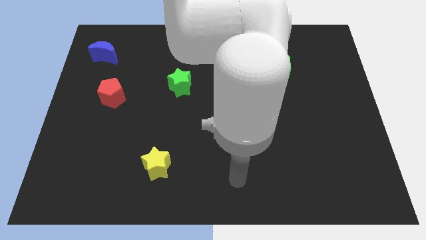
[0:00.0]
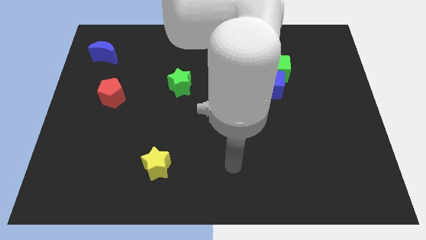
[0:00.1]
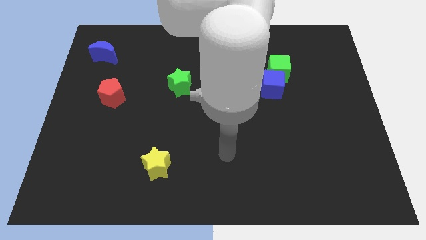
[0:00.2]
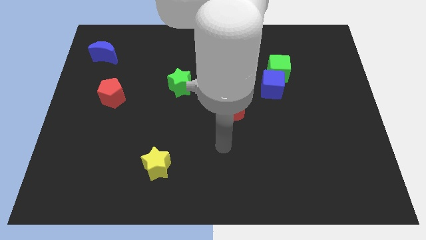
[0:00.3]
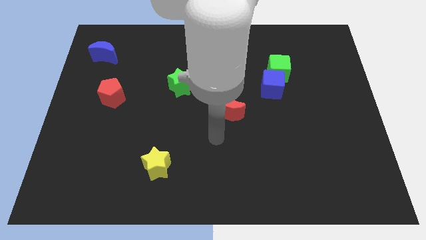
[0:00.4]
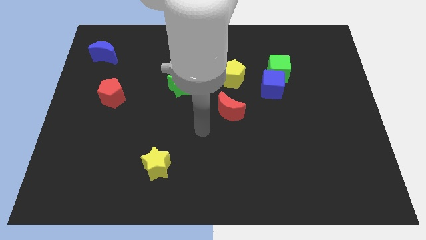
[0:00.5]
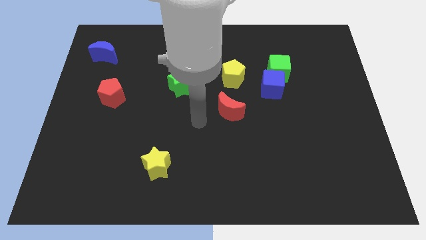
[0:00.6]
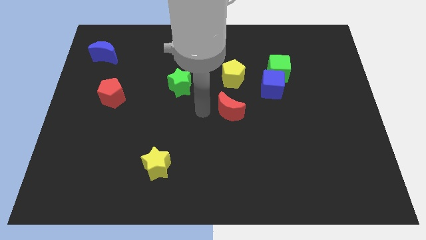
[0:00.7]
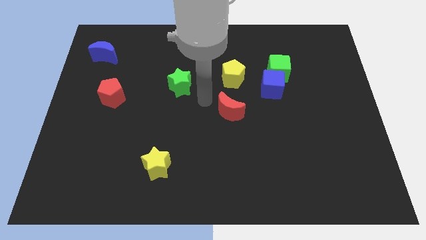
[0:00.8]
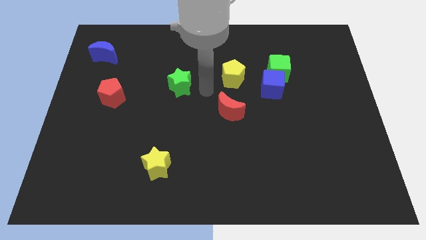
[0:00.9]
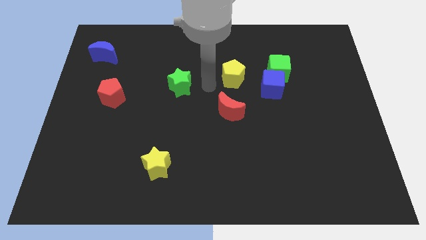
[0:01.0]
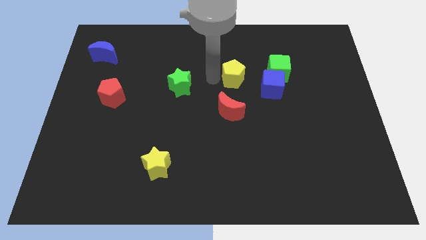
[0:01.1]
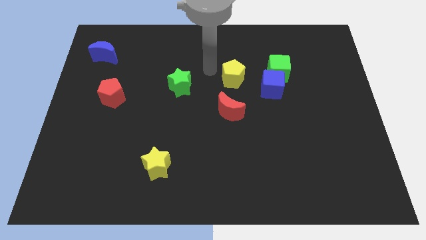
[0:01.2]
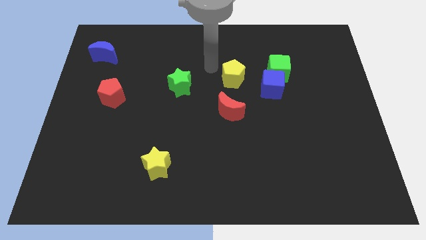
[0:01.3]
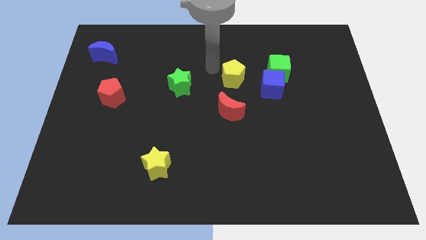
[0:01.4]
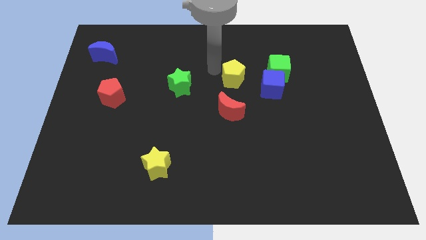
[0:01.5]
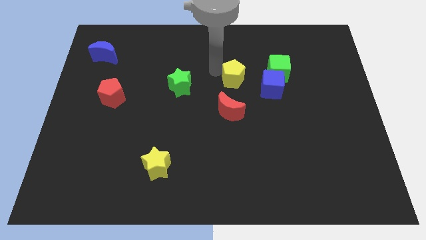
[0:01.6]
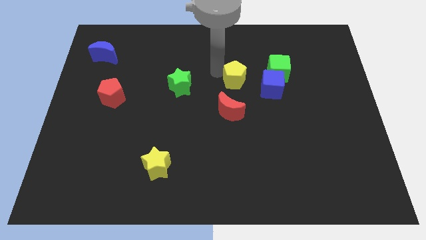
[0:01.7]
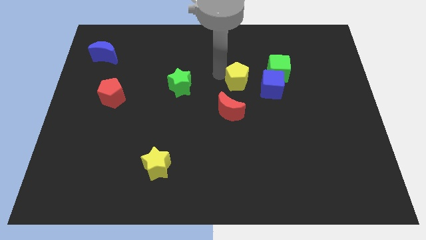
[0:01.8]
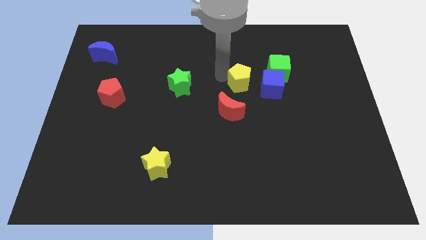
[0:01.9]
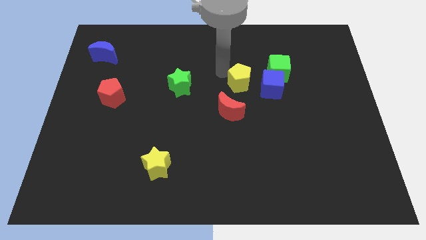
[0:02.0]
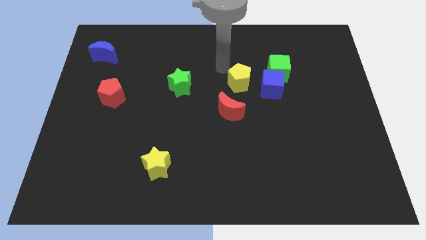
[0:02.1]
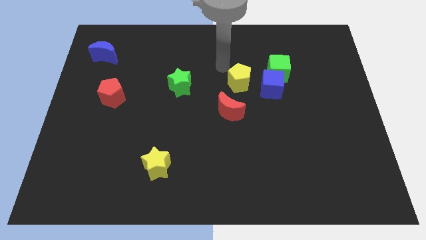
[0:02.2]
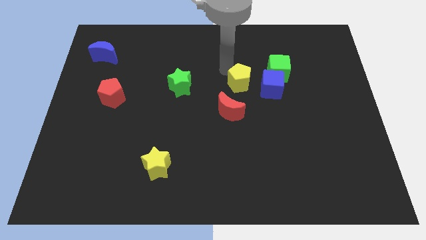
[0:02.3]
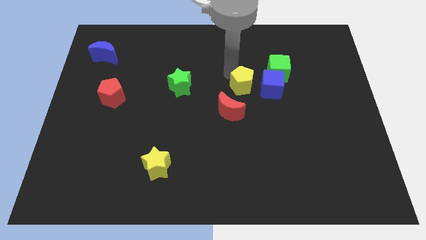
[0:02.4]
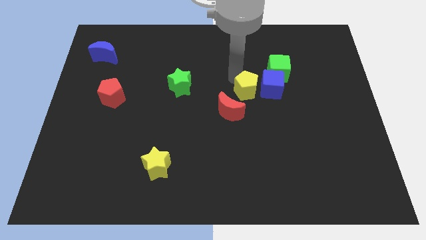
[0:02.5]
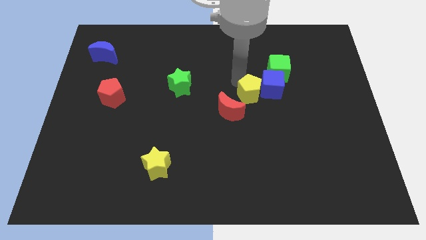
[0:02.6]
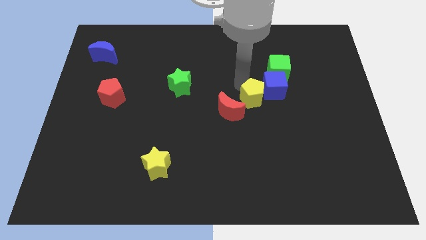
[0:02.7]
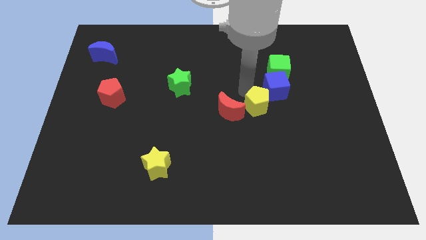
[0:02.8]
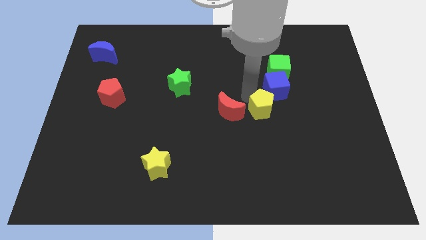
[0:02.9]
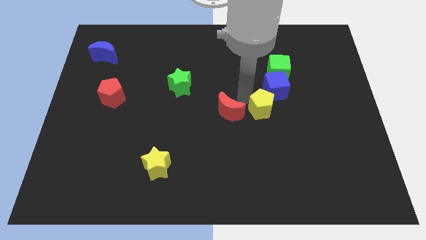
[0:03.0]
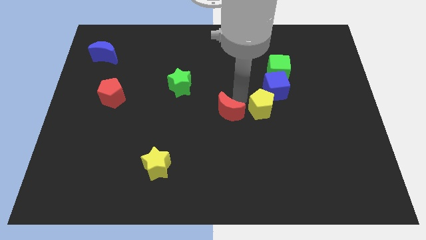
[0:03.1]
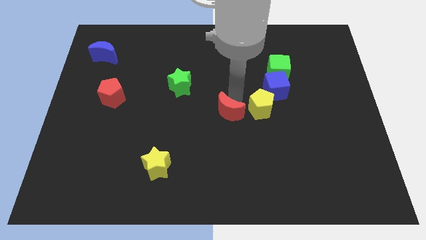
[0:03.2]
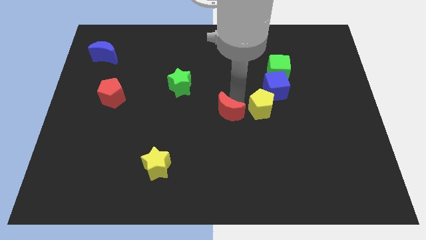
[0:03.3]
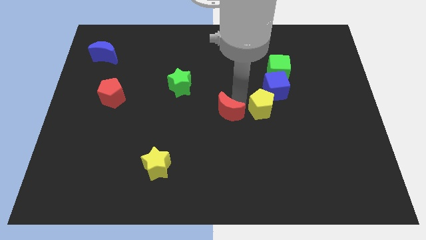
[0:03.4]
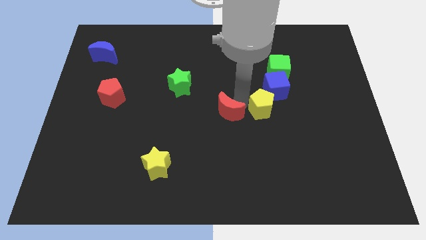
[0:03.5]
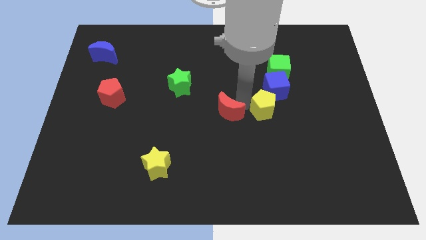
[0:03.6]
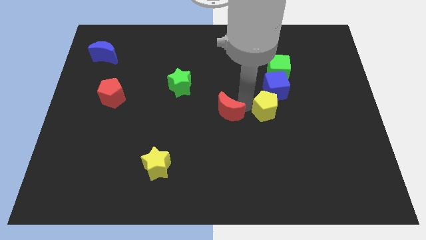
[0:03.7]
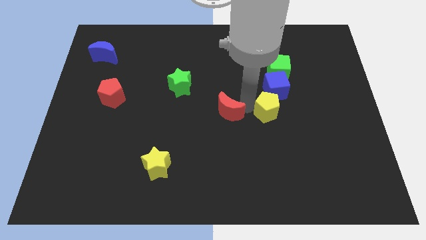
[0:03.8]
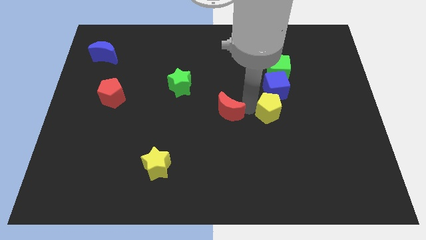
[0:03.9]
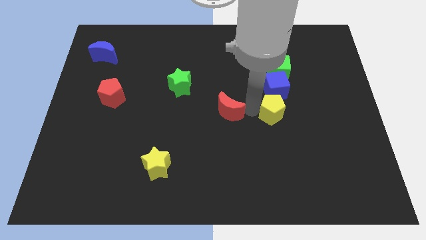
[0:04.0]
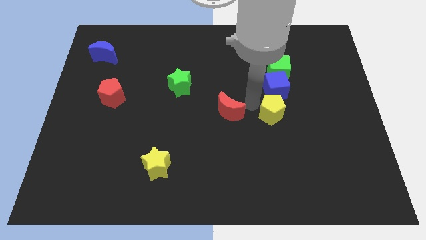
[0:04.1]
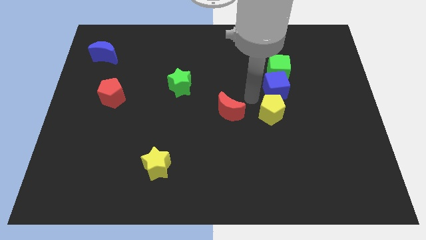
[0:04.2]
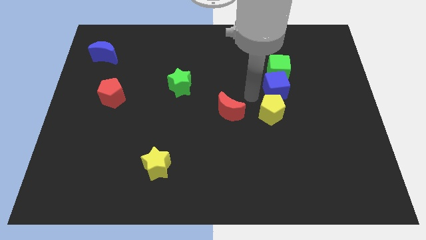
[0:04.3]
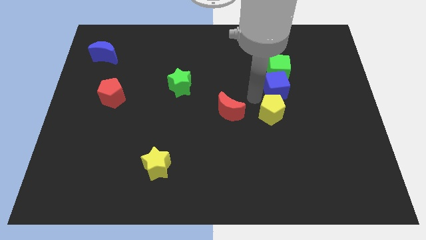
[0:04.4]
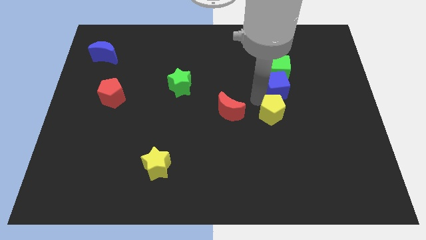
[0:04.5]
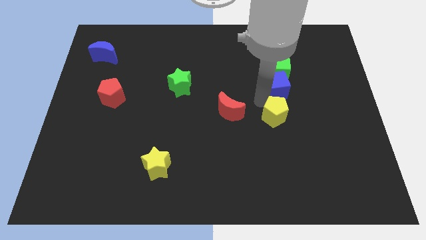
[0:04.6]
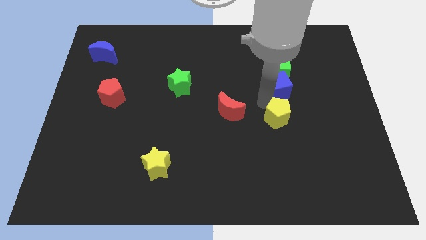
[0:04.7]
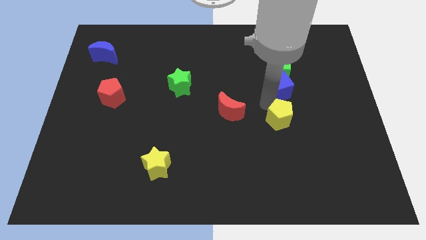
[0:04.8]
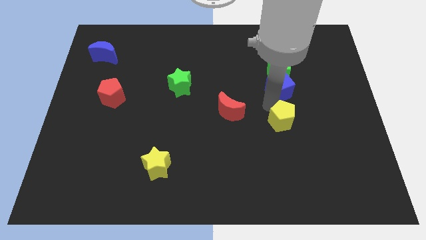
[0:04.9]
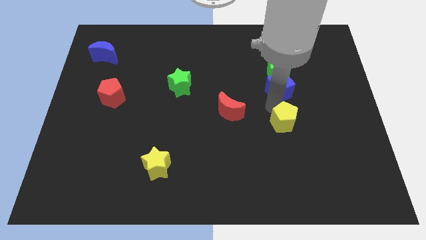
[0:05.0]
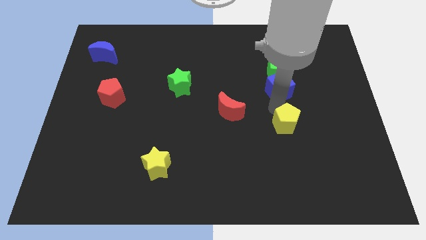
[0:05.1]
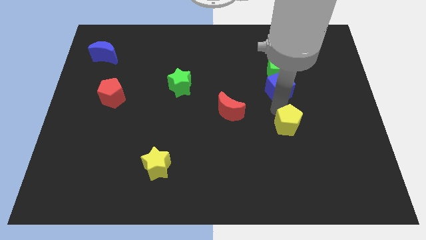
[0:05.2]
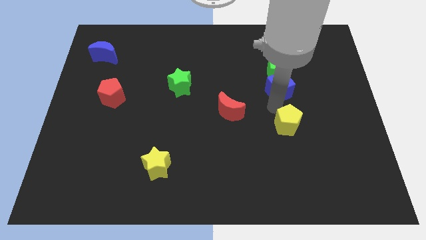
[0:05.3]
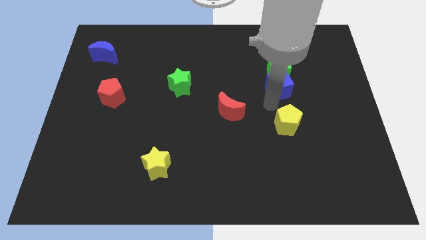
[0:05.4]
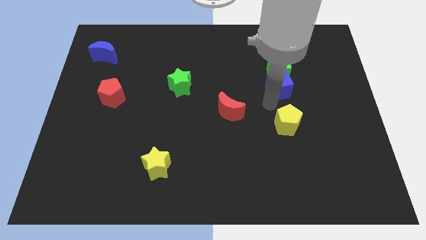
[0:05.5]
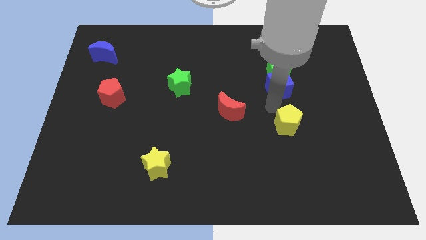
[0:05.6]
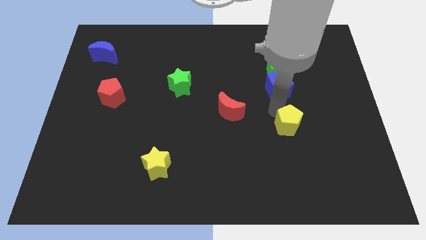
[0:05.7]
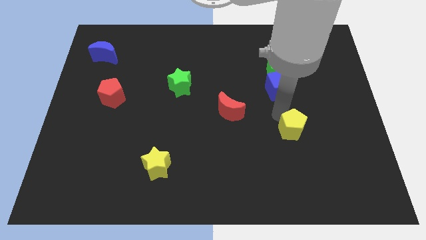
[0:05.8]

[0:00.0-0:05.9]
move the yellow pentagon downwards and right

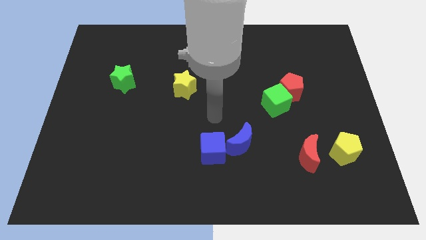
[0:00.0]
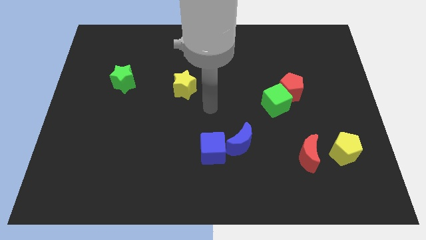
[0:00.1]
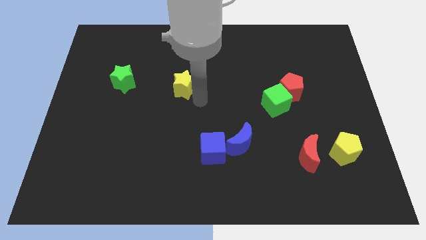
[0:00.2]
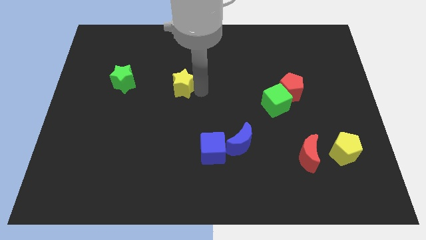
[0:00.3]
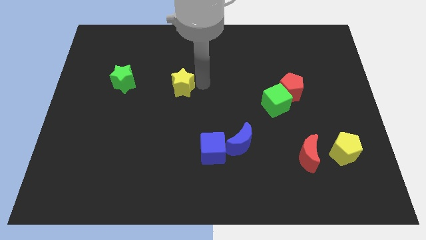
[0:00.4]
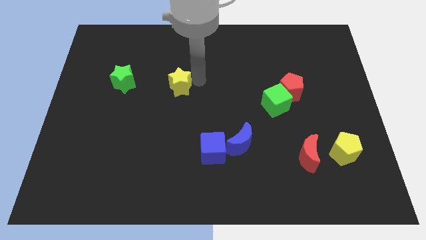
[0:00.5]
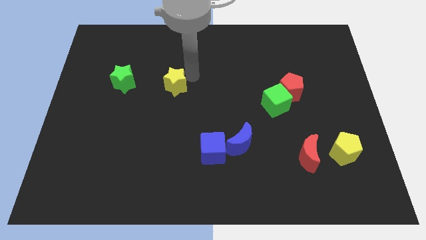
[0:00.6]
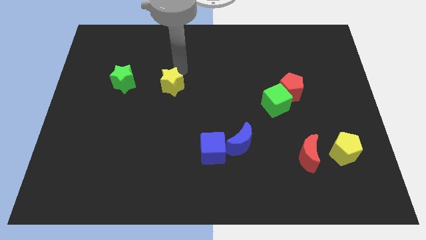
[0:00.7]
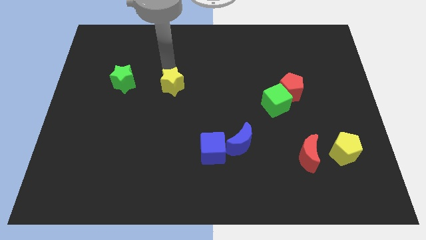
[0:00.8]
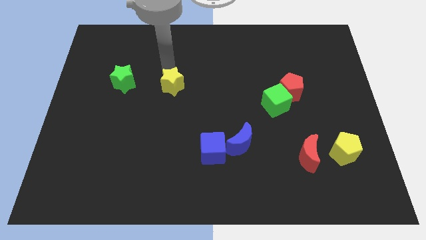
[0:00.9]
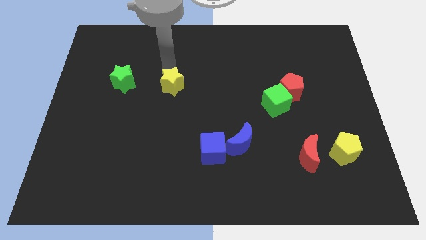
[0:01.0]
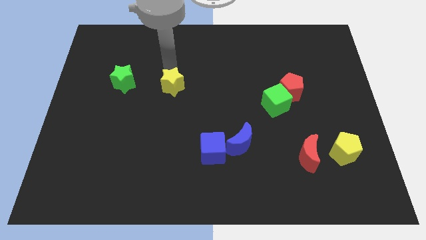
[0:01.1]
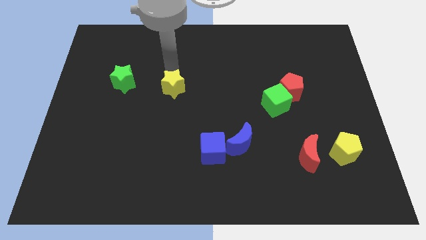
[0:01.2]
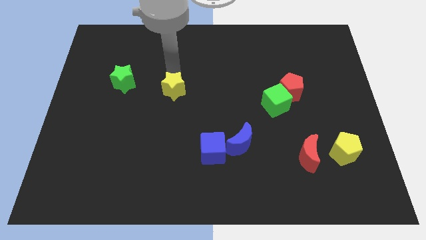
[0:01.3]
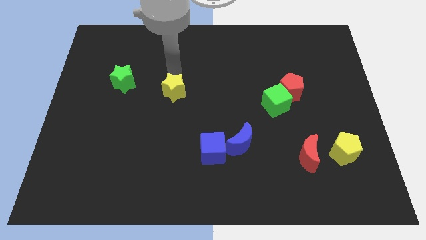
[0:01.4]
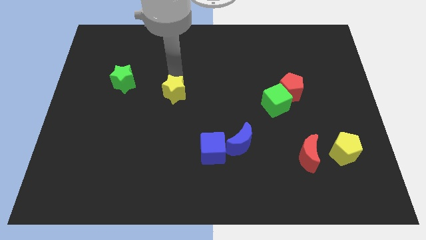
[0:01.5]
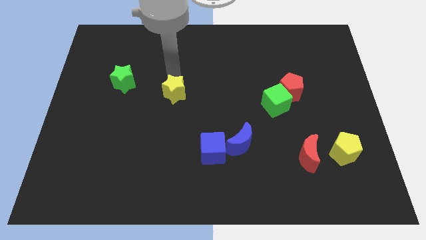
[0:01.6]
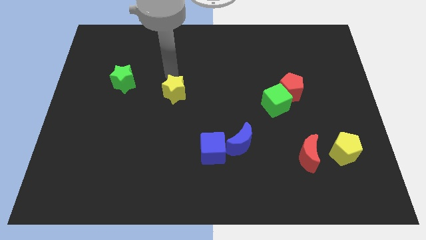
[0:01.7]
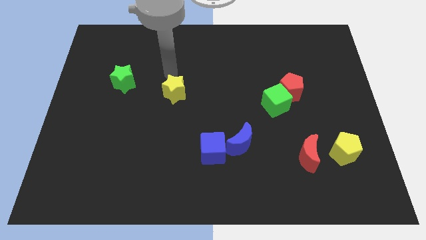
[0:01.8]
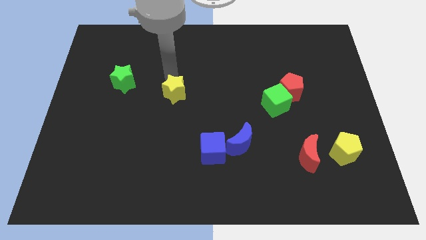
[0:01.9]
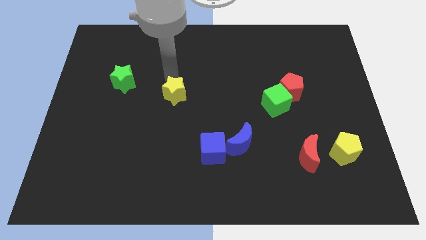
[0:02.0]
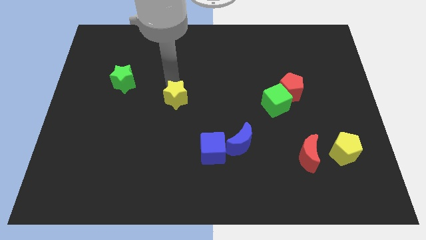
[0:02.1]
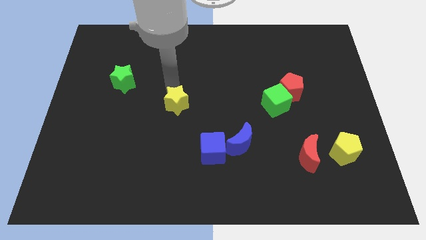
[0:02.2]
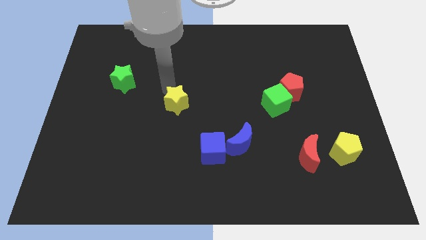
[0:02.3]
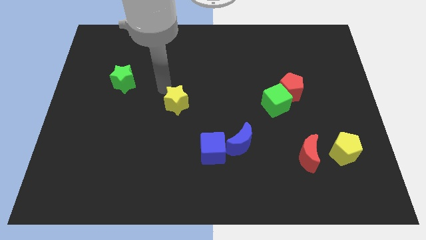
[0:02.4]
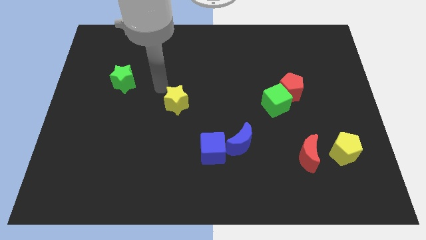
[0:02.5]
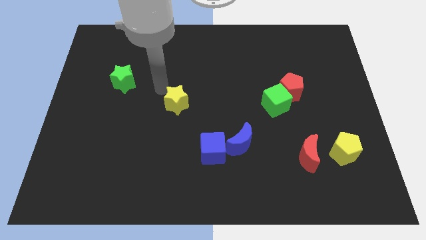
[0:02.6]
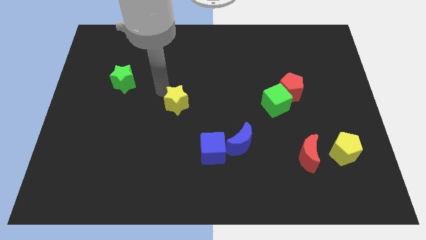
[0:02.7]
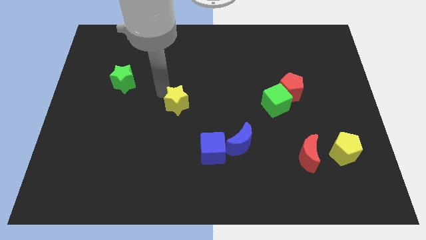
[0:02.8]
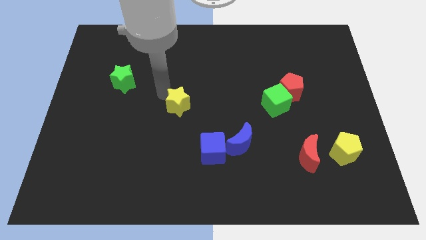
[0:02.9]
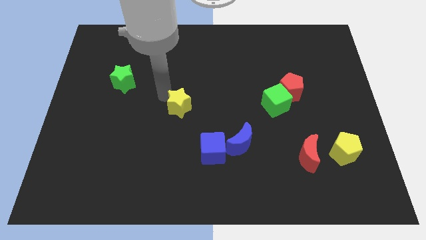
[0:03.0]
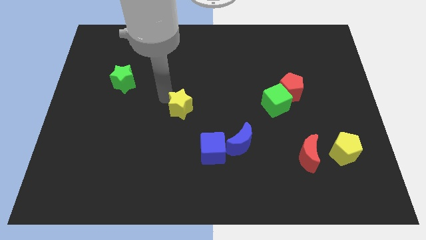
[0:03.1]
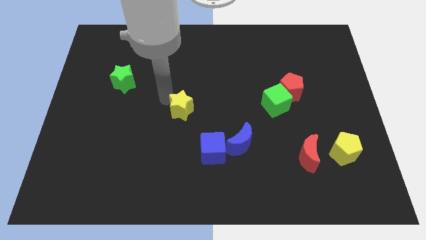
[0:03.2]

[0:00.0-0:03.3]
slide the yellow star downwards somewhat
